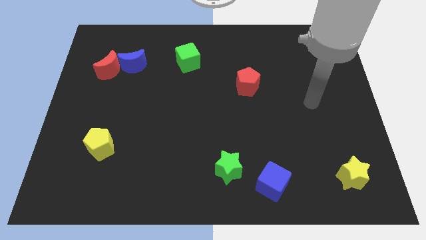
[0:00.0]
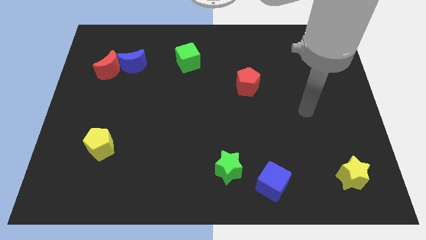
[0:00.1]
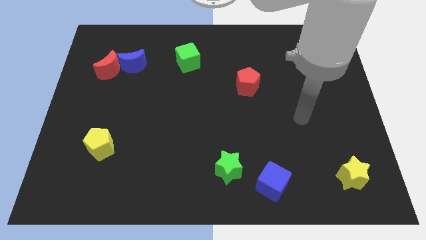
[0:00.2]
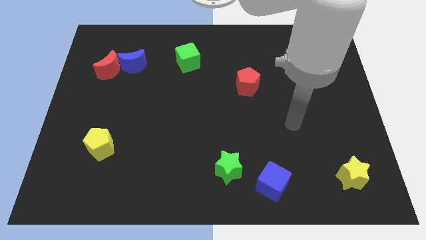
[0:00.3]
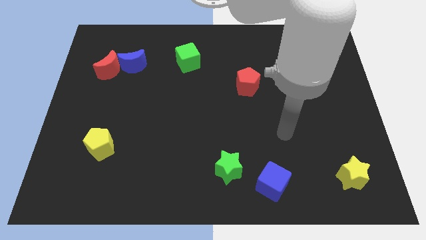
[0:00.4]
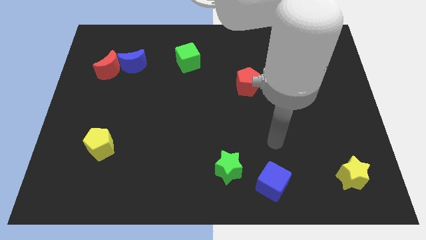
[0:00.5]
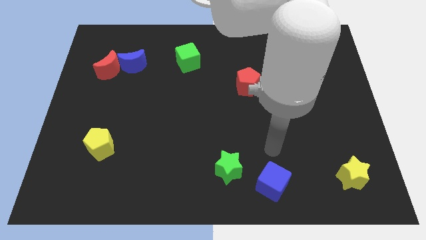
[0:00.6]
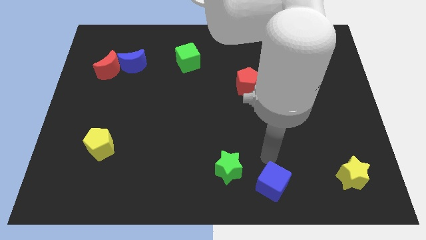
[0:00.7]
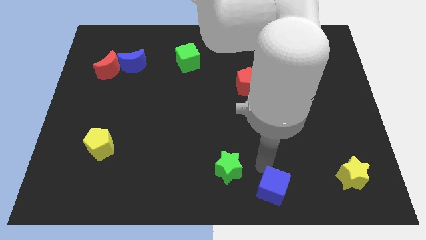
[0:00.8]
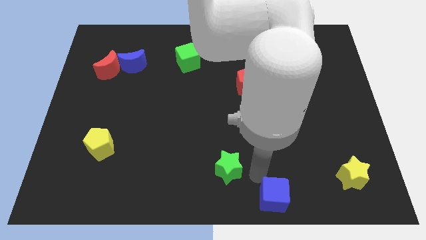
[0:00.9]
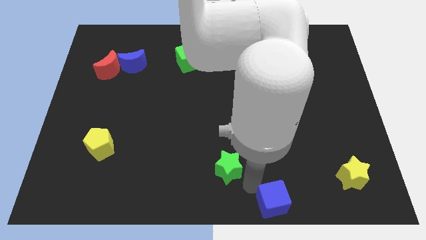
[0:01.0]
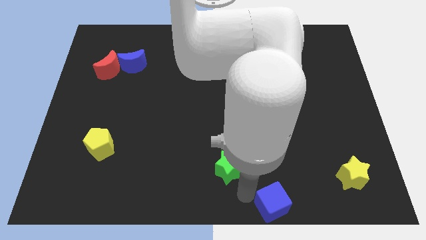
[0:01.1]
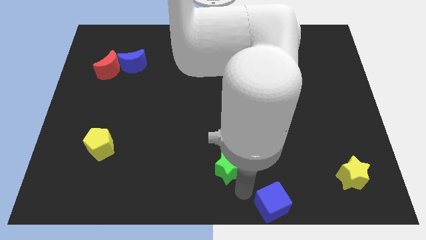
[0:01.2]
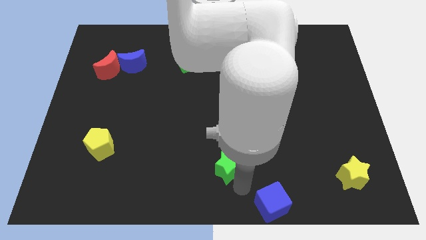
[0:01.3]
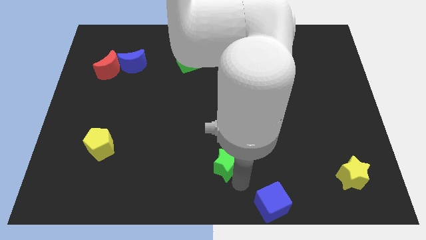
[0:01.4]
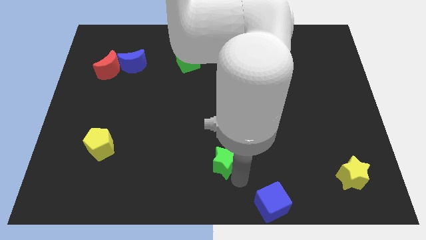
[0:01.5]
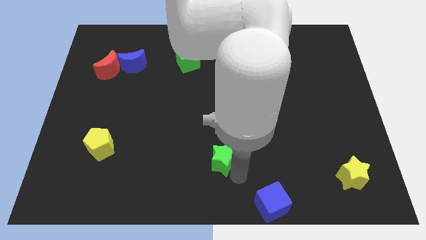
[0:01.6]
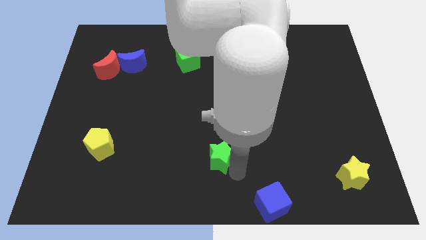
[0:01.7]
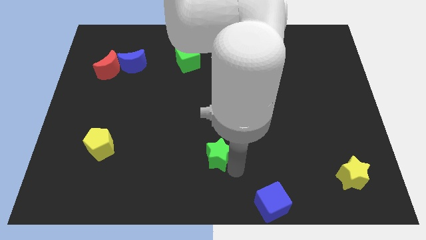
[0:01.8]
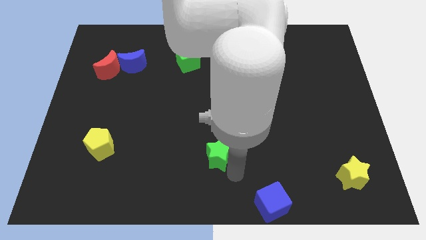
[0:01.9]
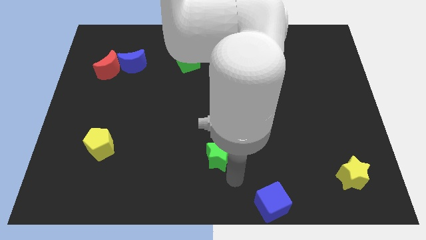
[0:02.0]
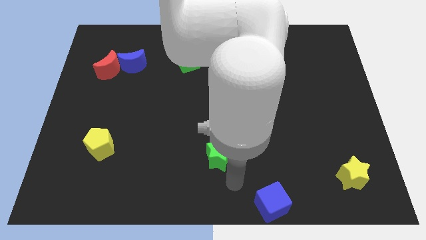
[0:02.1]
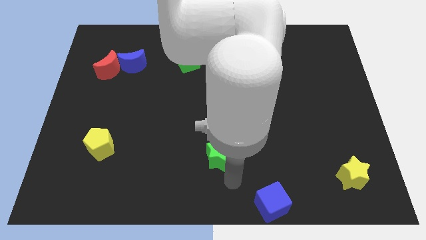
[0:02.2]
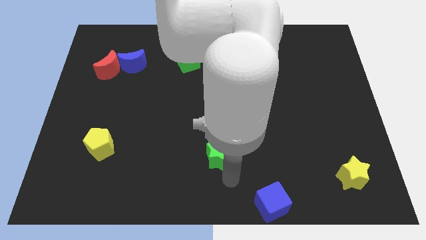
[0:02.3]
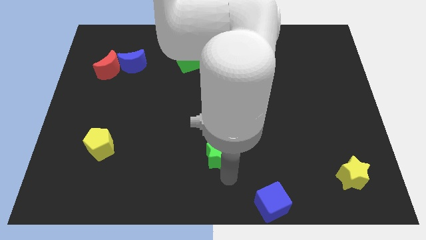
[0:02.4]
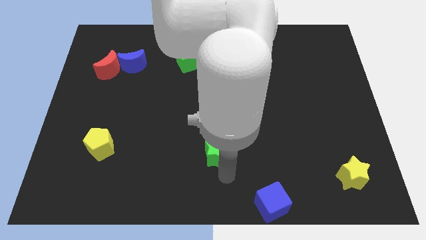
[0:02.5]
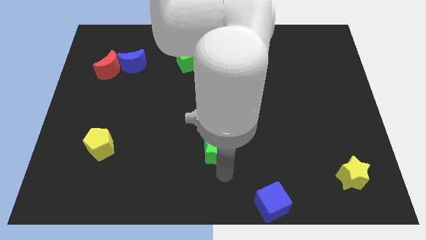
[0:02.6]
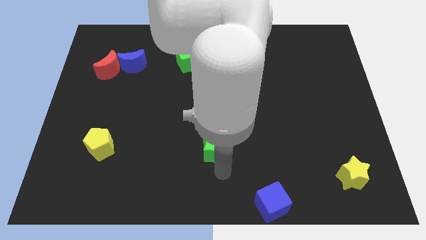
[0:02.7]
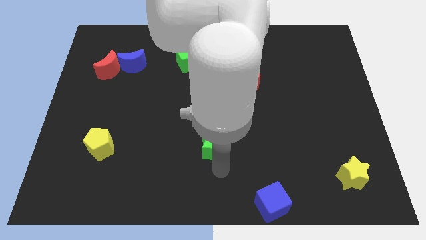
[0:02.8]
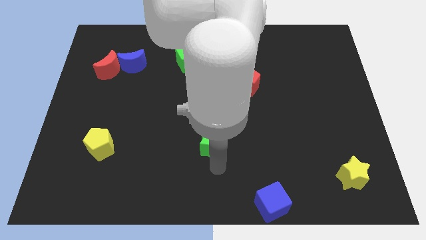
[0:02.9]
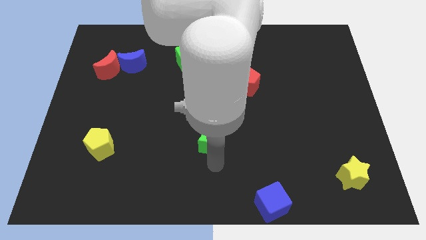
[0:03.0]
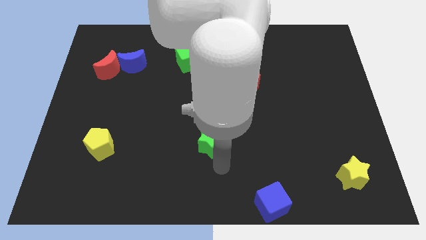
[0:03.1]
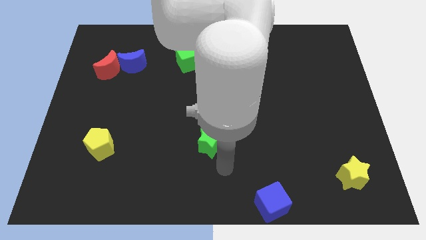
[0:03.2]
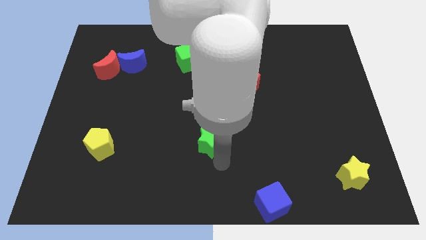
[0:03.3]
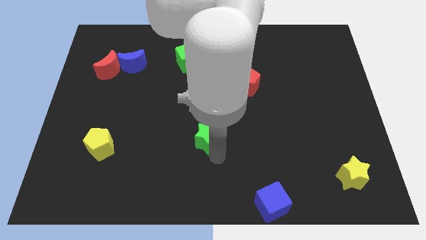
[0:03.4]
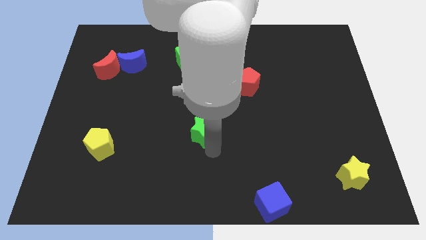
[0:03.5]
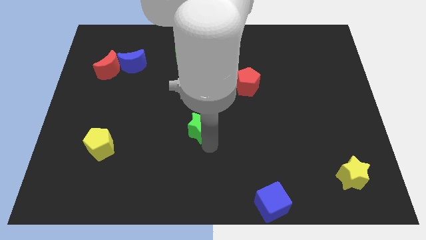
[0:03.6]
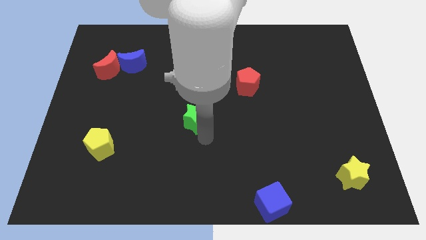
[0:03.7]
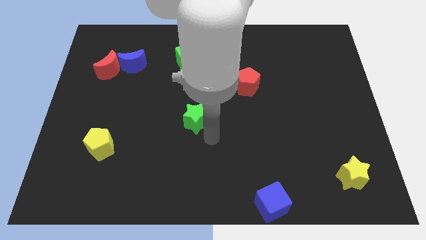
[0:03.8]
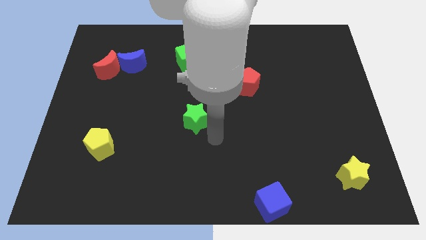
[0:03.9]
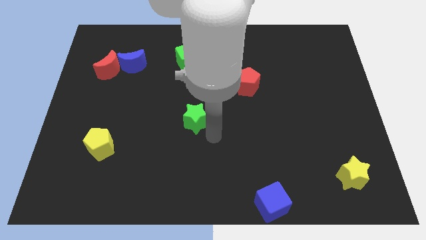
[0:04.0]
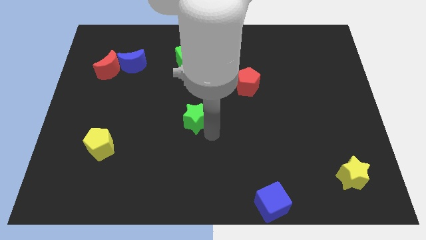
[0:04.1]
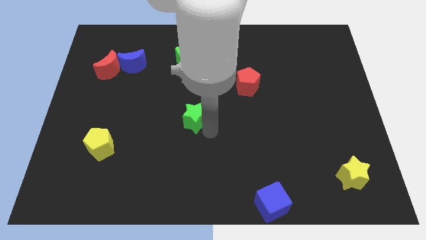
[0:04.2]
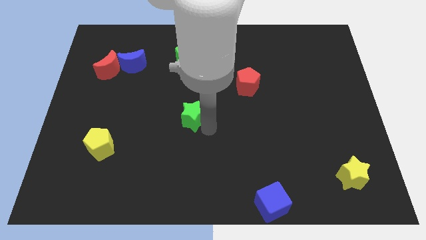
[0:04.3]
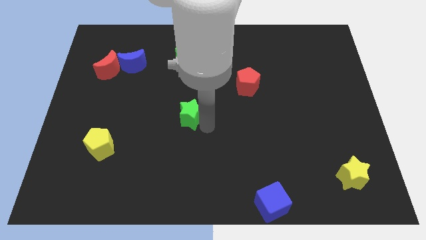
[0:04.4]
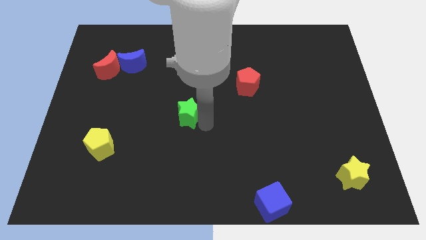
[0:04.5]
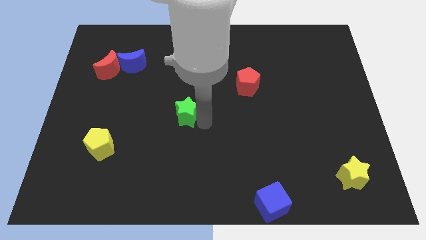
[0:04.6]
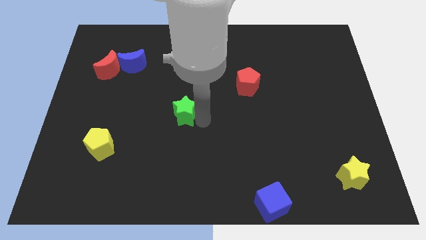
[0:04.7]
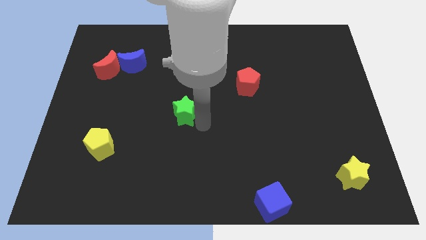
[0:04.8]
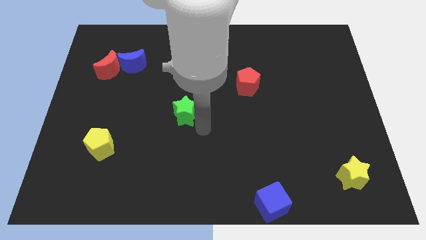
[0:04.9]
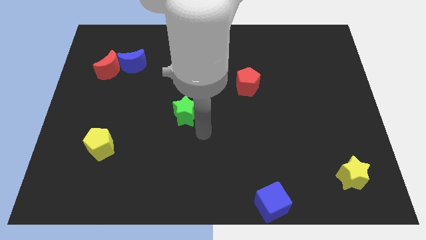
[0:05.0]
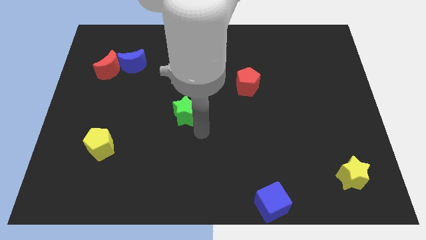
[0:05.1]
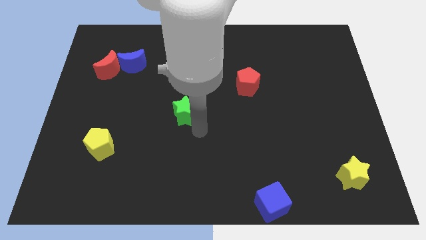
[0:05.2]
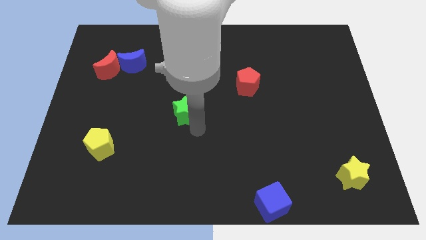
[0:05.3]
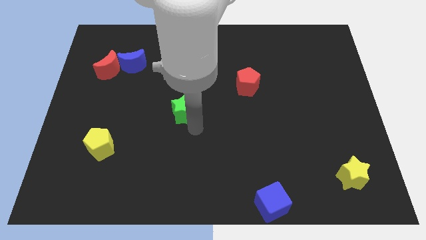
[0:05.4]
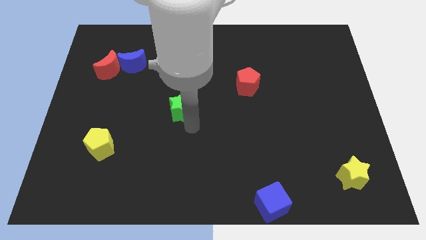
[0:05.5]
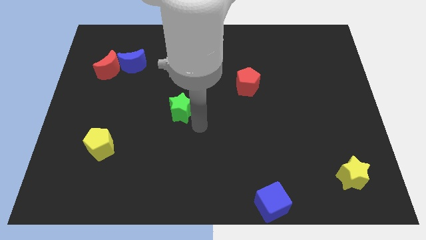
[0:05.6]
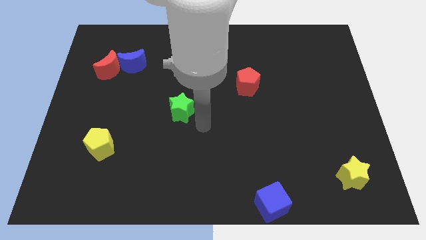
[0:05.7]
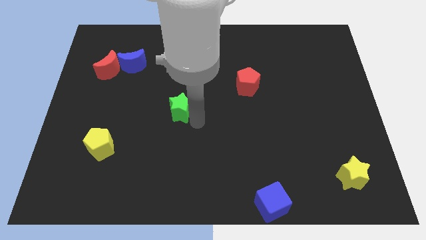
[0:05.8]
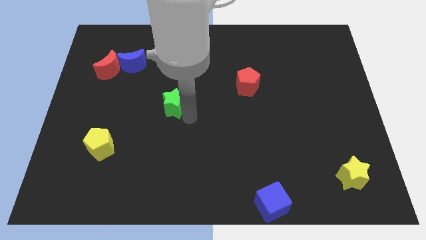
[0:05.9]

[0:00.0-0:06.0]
move the green star upwards and to the left diagonally

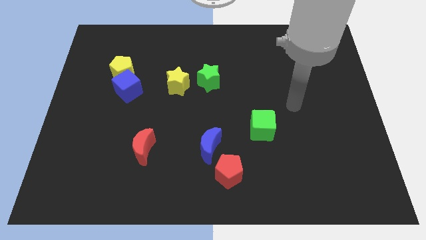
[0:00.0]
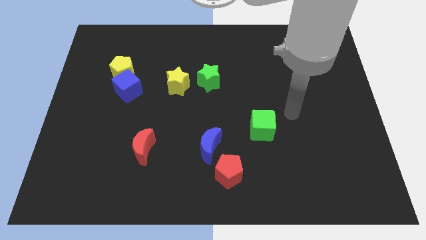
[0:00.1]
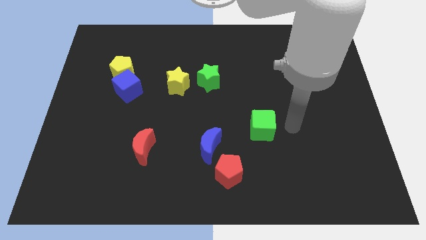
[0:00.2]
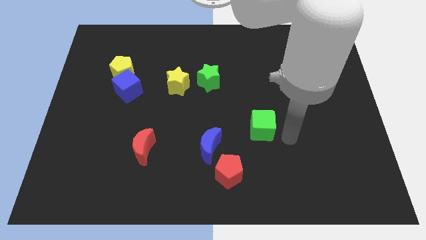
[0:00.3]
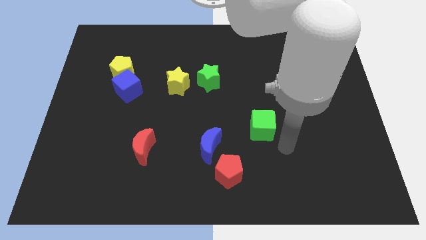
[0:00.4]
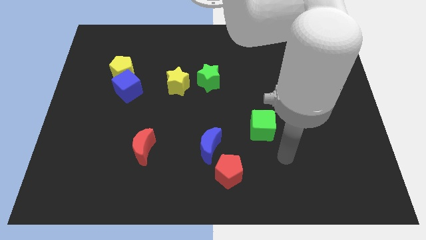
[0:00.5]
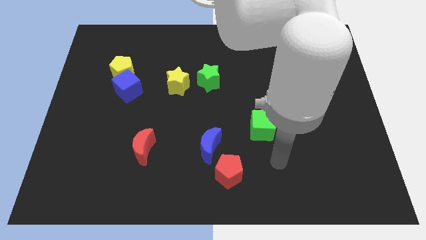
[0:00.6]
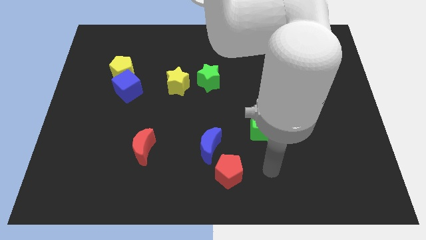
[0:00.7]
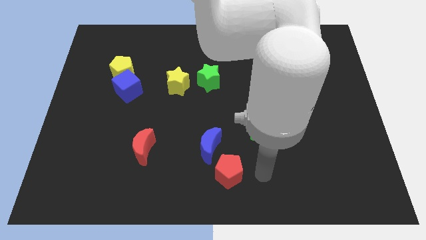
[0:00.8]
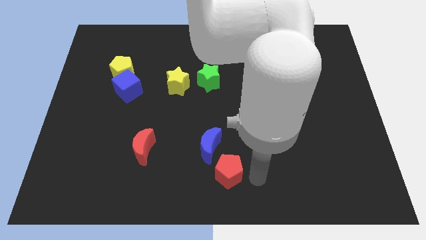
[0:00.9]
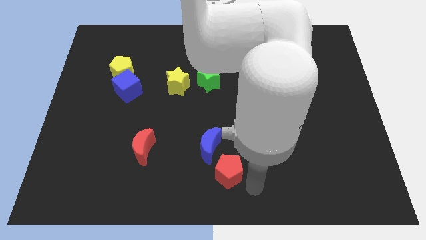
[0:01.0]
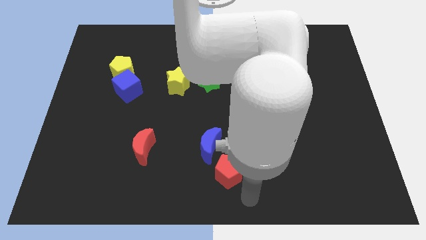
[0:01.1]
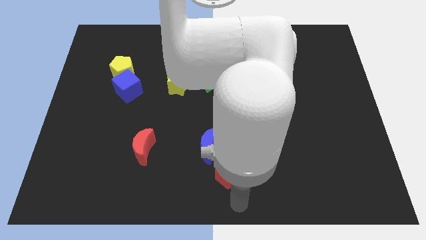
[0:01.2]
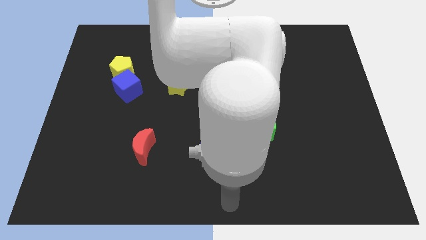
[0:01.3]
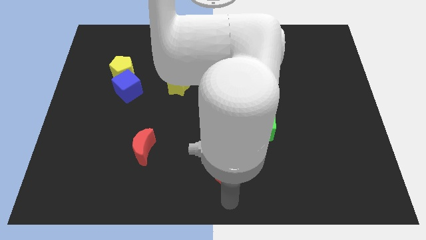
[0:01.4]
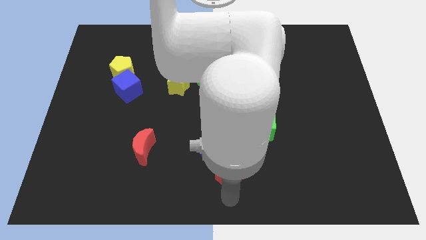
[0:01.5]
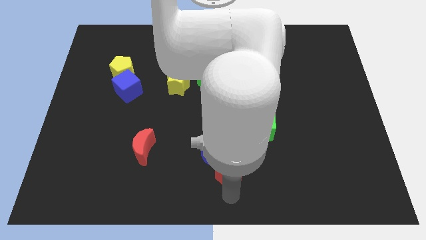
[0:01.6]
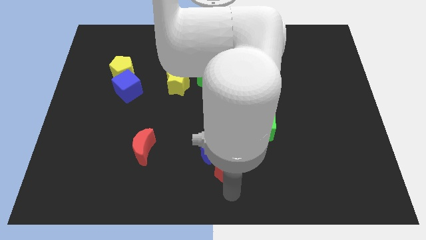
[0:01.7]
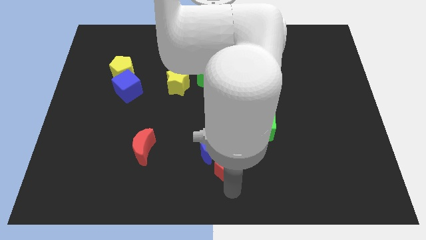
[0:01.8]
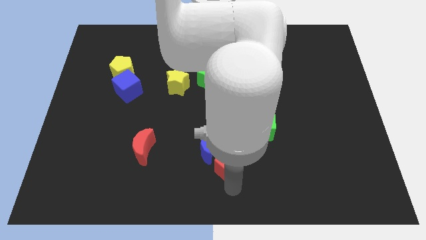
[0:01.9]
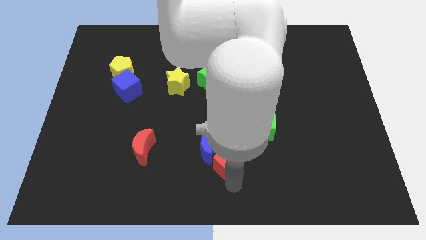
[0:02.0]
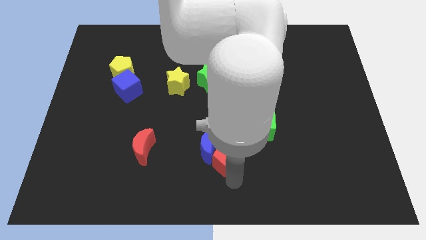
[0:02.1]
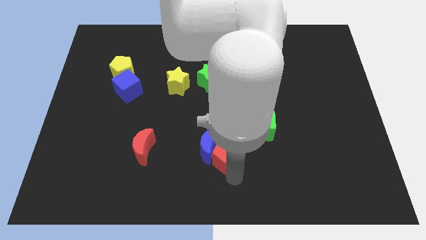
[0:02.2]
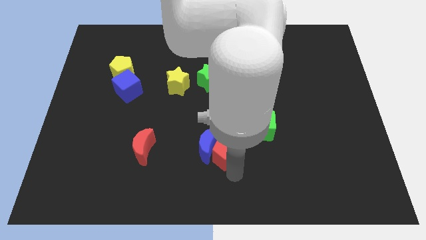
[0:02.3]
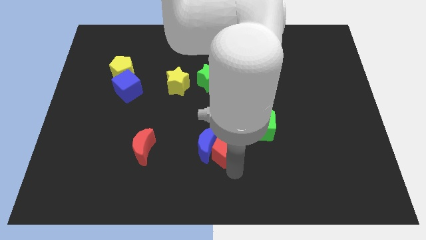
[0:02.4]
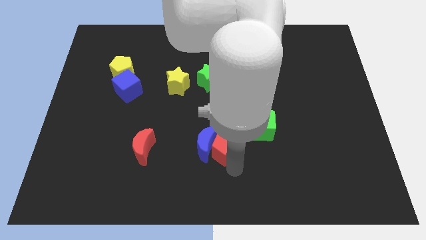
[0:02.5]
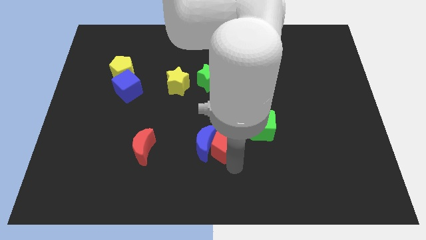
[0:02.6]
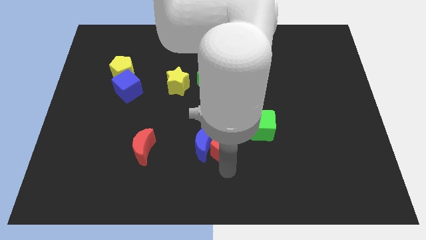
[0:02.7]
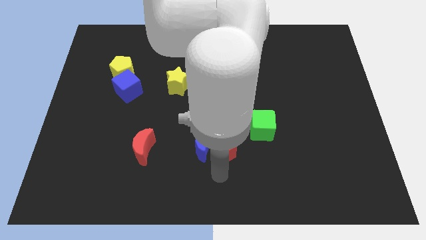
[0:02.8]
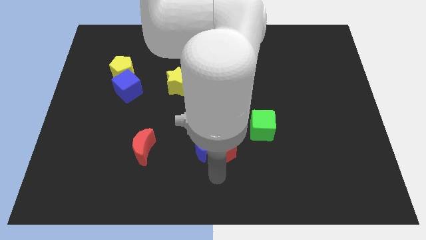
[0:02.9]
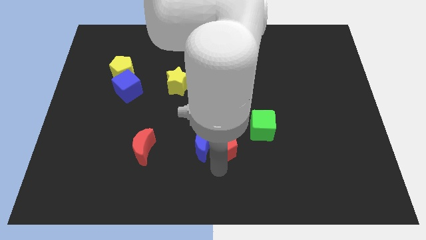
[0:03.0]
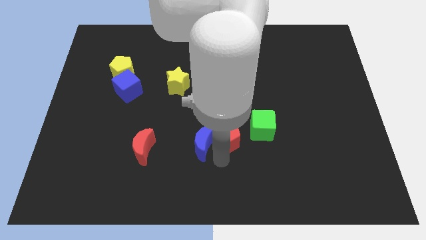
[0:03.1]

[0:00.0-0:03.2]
move the red pentagon upwards a little bit
